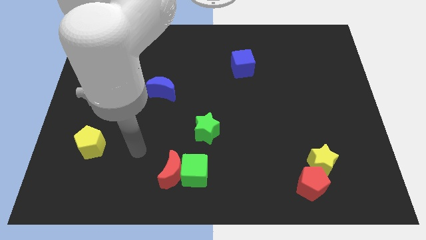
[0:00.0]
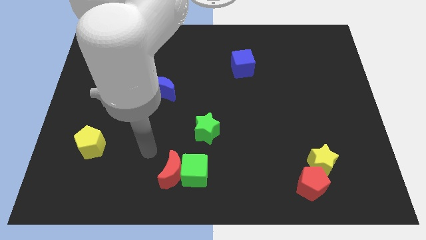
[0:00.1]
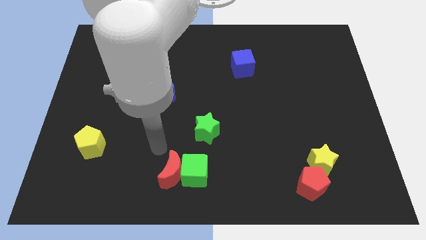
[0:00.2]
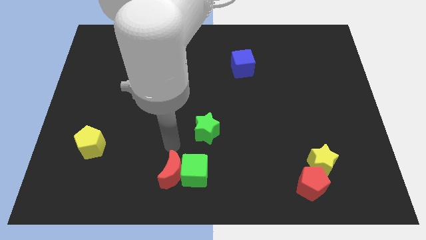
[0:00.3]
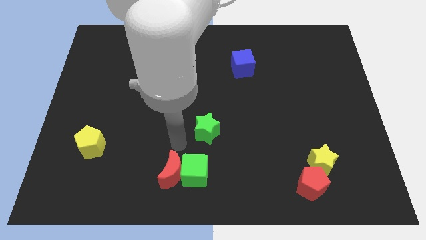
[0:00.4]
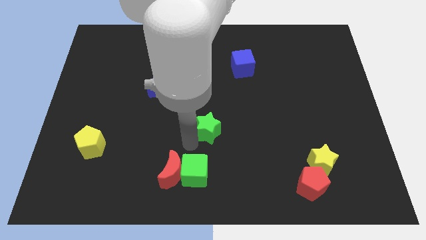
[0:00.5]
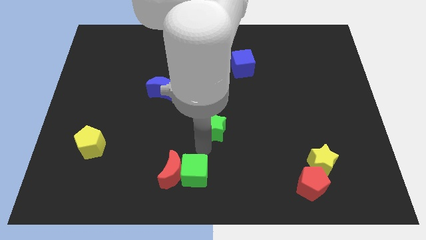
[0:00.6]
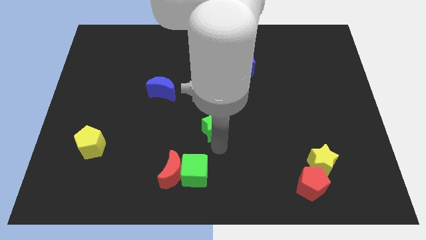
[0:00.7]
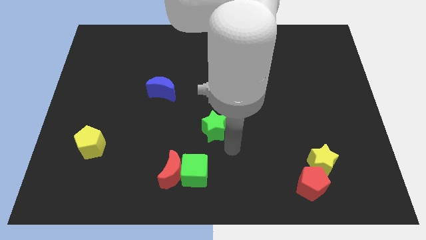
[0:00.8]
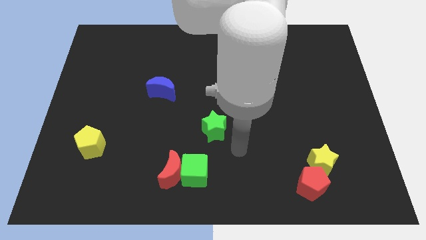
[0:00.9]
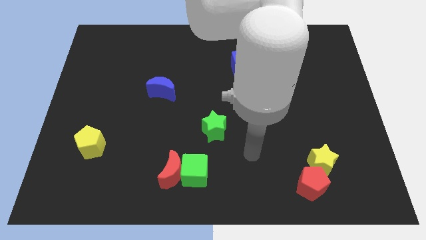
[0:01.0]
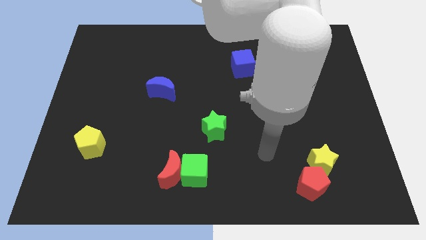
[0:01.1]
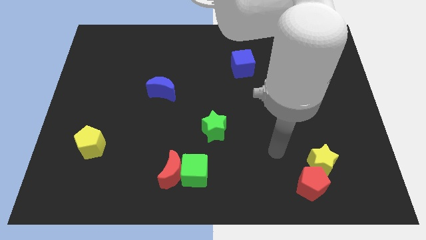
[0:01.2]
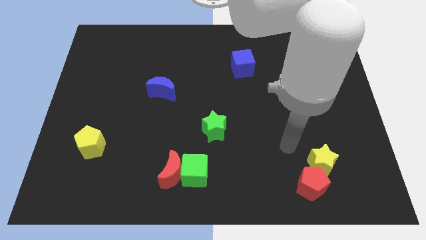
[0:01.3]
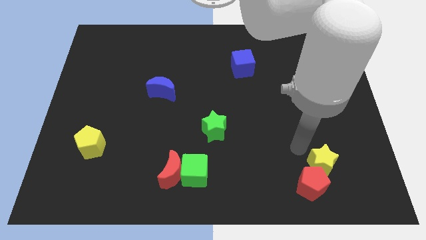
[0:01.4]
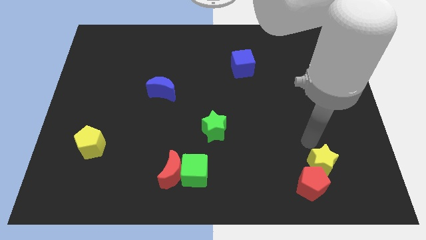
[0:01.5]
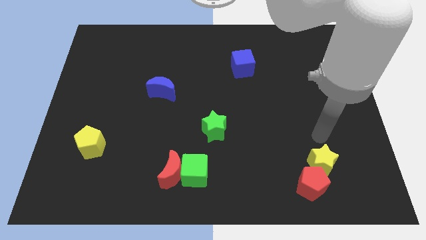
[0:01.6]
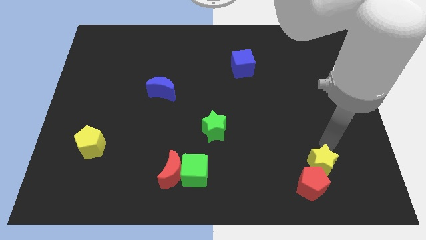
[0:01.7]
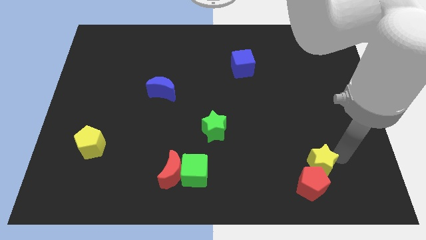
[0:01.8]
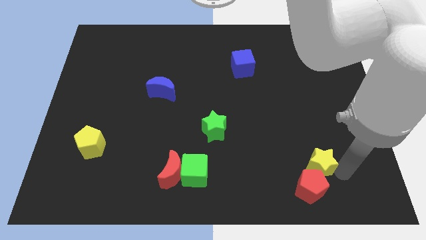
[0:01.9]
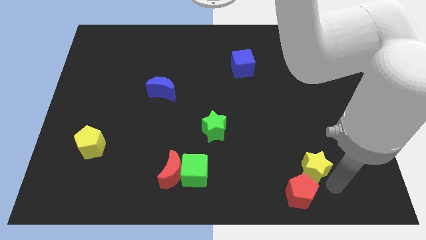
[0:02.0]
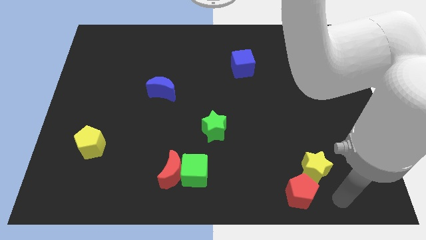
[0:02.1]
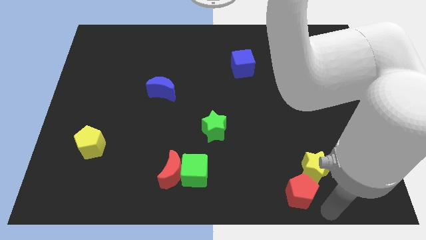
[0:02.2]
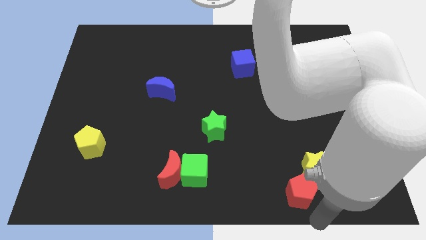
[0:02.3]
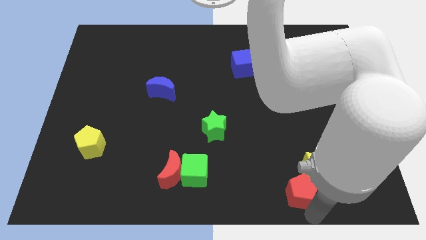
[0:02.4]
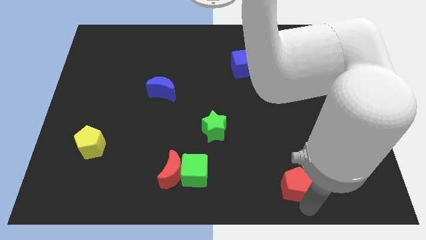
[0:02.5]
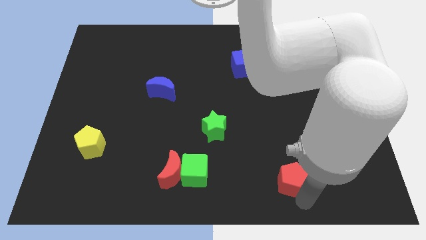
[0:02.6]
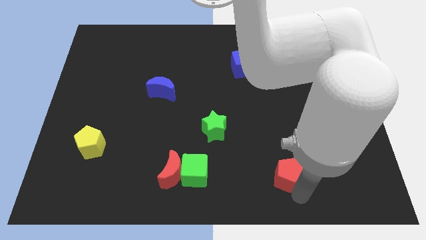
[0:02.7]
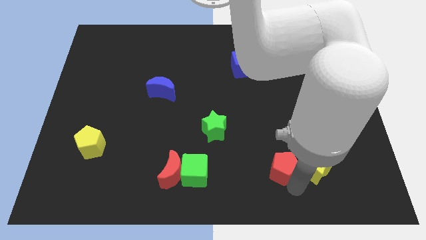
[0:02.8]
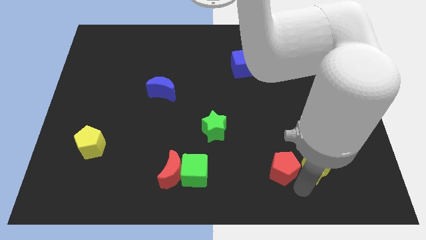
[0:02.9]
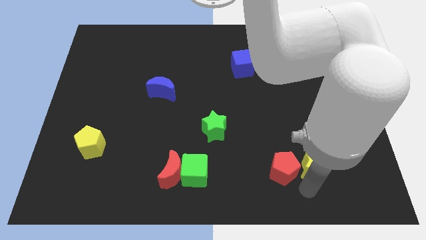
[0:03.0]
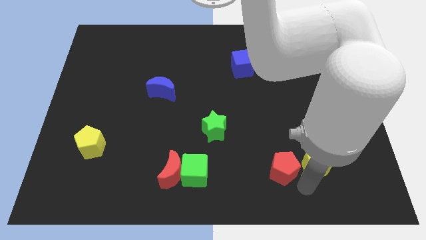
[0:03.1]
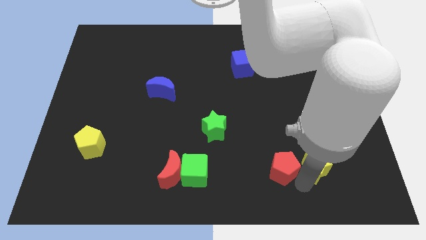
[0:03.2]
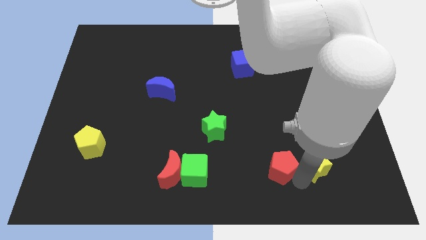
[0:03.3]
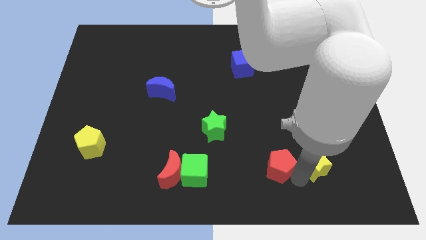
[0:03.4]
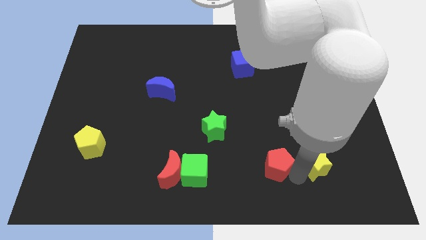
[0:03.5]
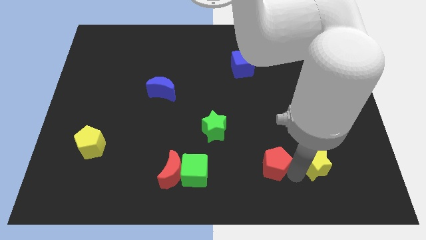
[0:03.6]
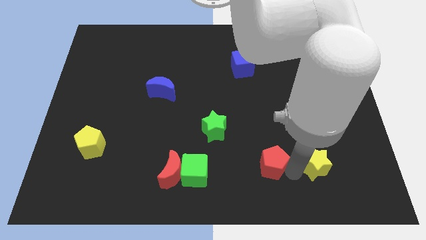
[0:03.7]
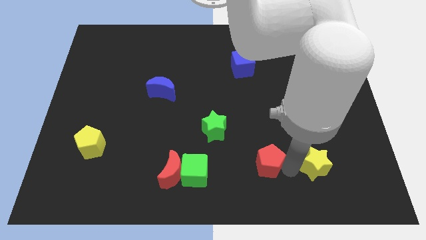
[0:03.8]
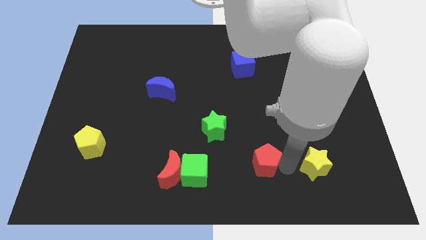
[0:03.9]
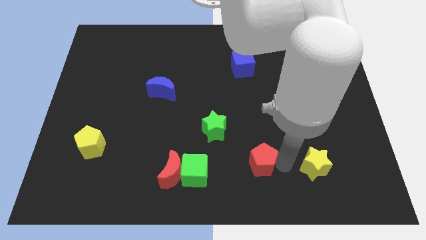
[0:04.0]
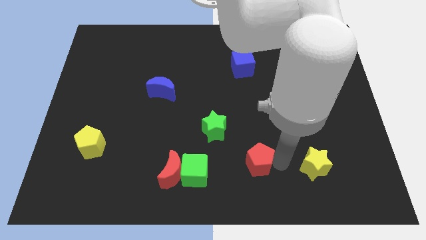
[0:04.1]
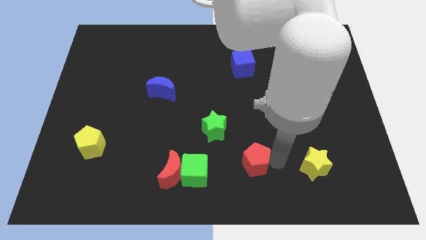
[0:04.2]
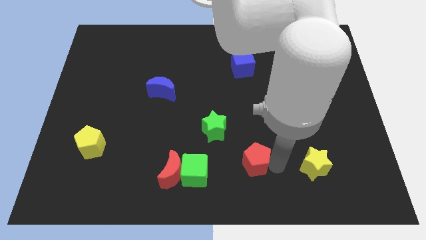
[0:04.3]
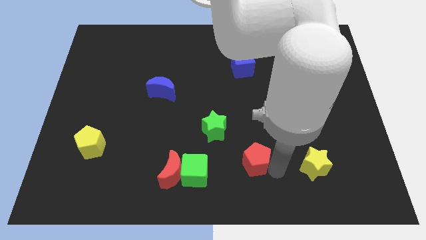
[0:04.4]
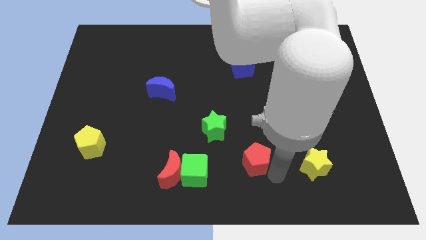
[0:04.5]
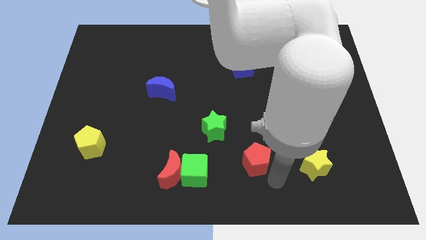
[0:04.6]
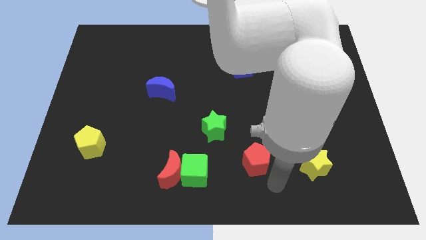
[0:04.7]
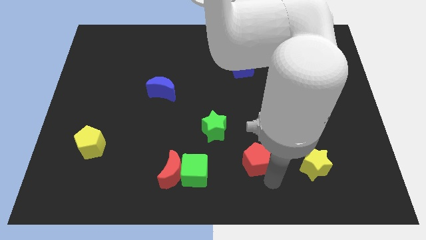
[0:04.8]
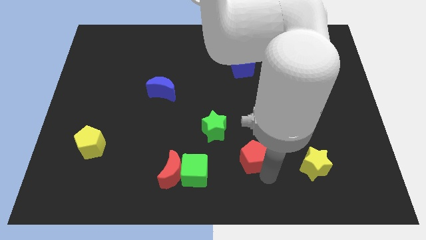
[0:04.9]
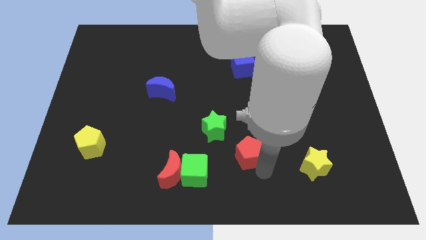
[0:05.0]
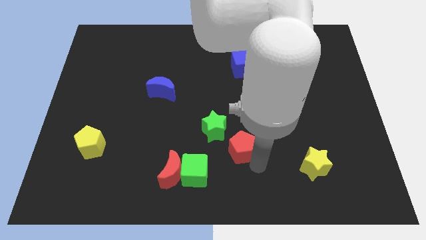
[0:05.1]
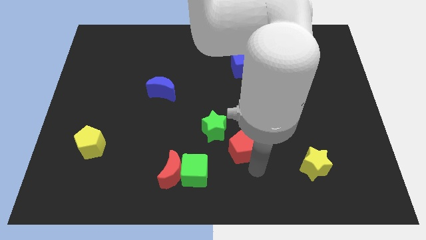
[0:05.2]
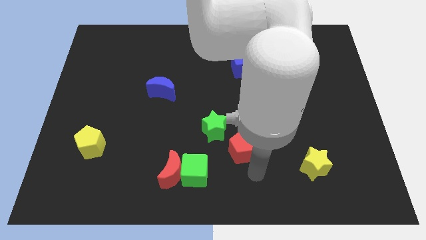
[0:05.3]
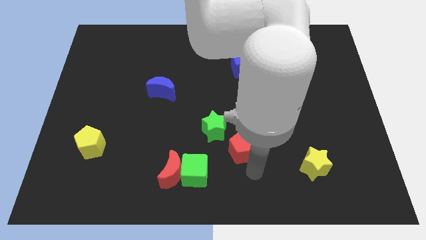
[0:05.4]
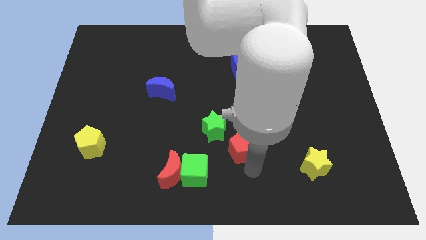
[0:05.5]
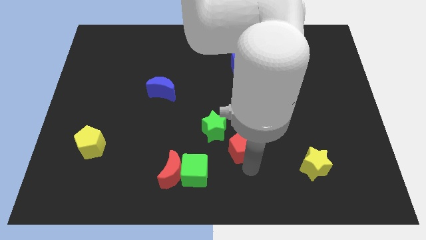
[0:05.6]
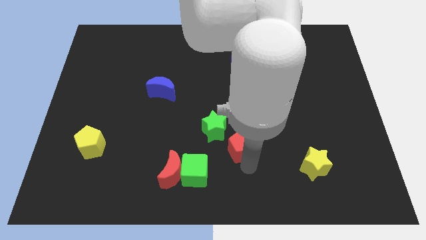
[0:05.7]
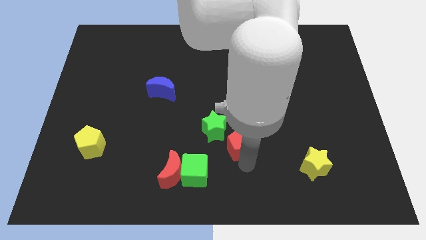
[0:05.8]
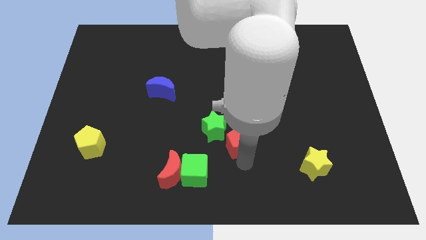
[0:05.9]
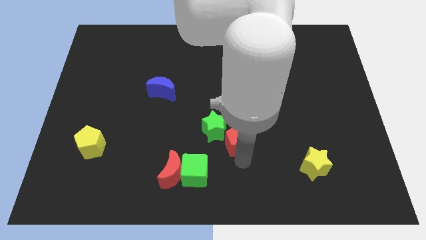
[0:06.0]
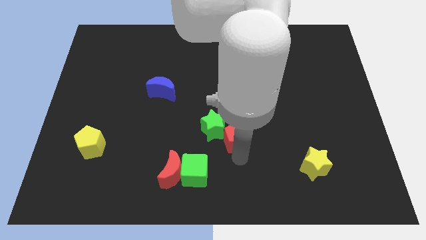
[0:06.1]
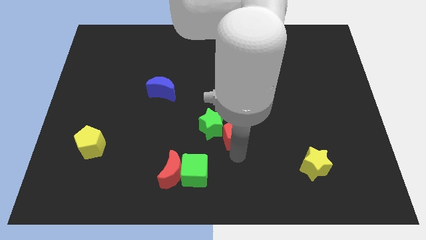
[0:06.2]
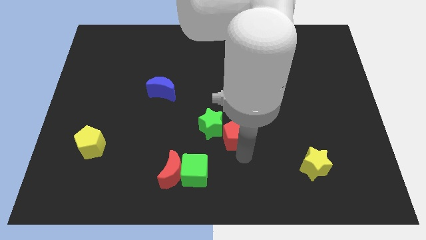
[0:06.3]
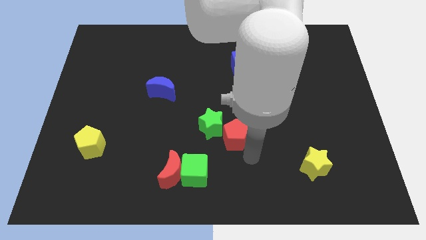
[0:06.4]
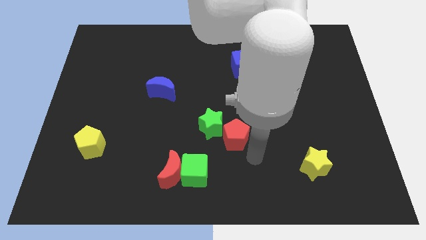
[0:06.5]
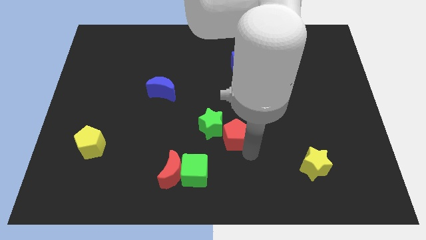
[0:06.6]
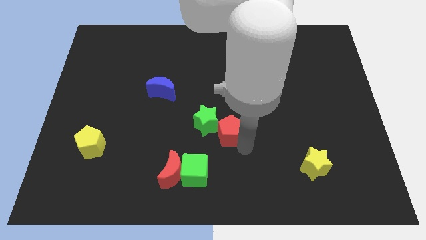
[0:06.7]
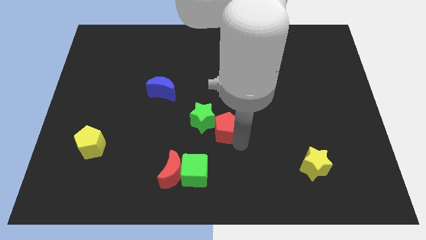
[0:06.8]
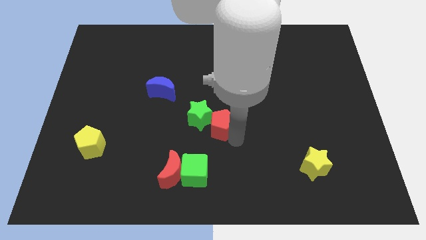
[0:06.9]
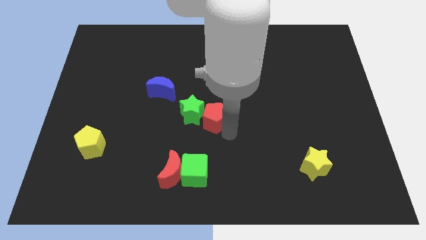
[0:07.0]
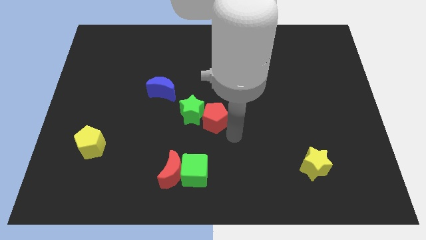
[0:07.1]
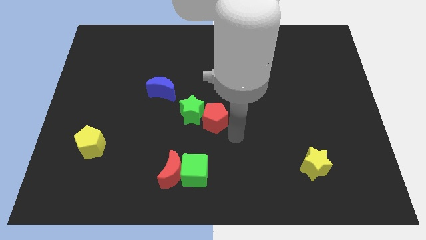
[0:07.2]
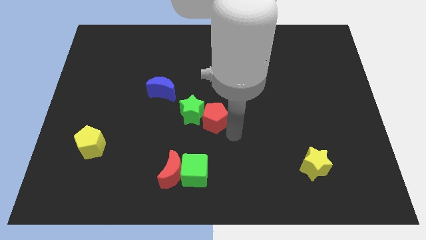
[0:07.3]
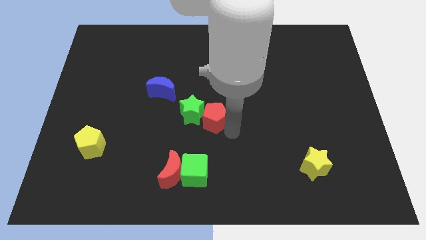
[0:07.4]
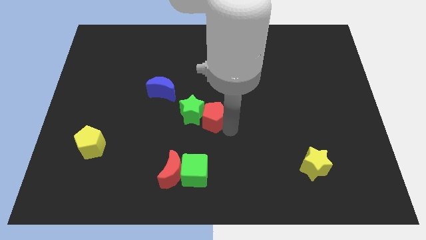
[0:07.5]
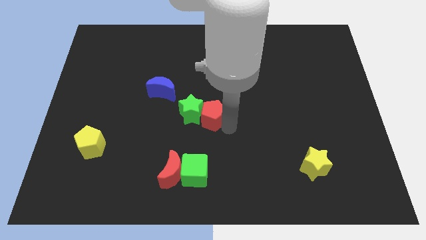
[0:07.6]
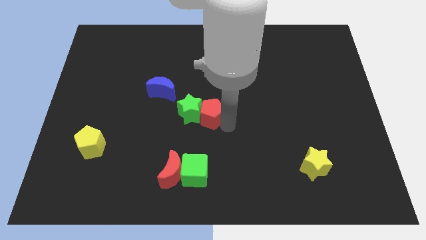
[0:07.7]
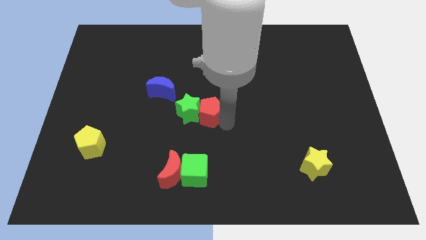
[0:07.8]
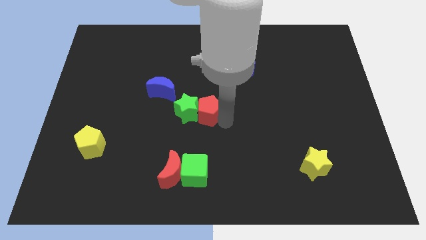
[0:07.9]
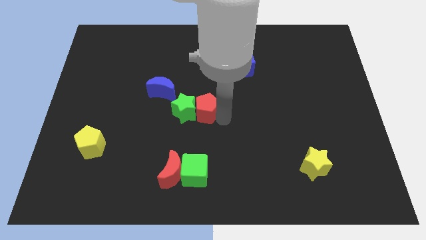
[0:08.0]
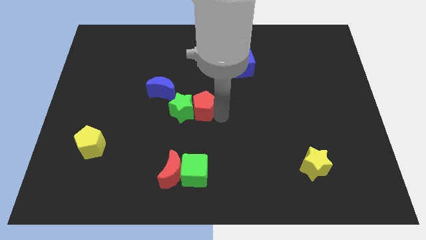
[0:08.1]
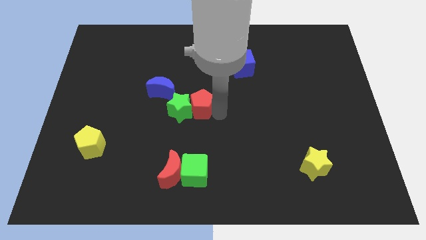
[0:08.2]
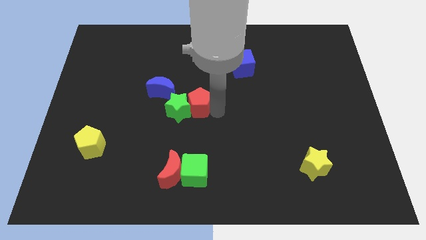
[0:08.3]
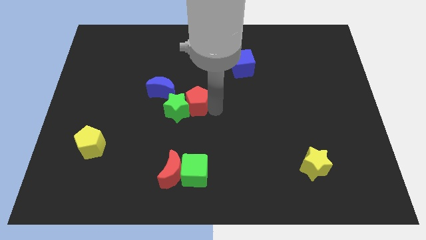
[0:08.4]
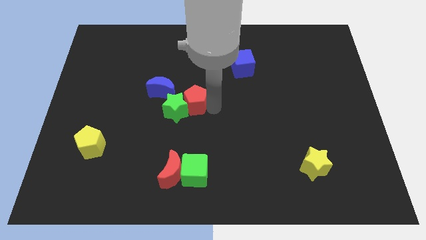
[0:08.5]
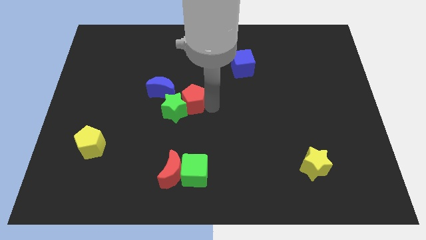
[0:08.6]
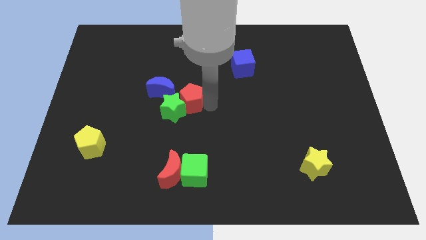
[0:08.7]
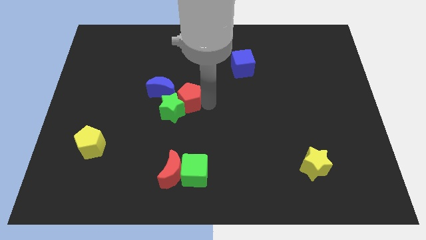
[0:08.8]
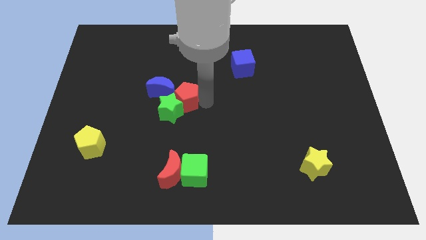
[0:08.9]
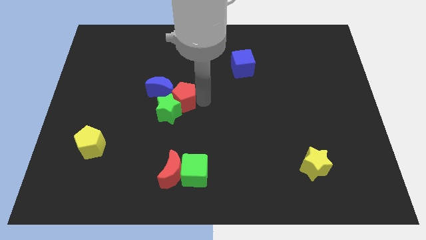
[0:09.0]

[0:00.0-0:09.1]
move the red pentagon close to the blue moon
